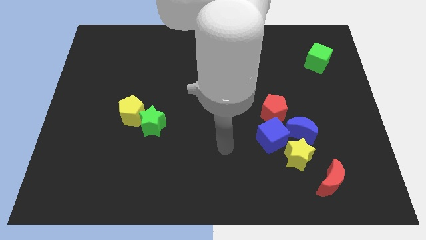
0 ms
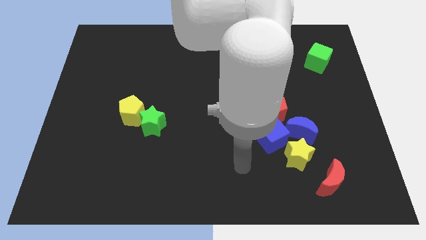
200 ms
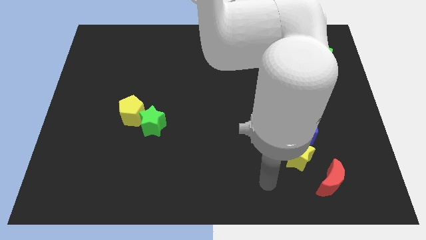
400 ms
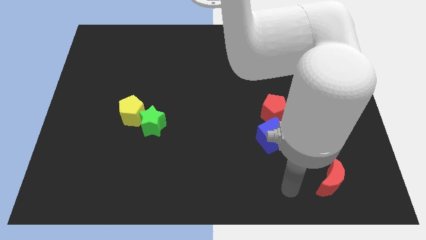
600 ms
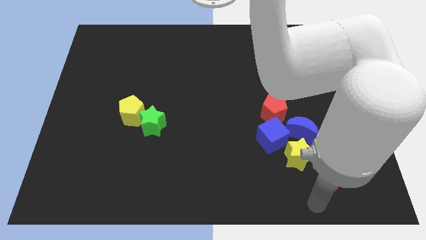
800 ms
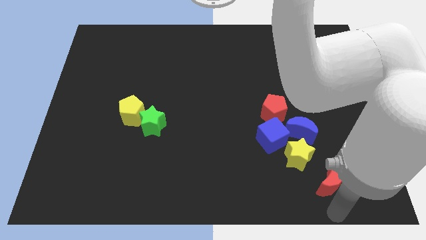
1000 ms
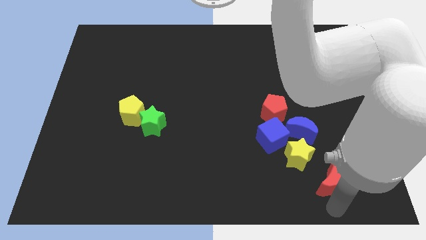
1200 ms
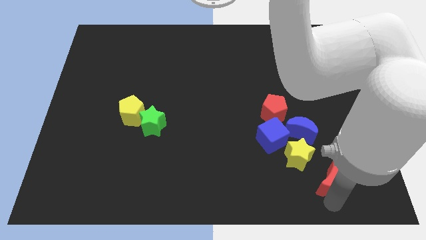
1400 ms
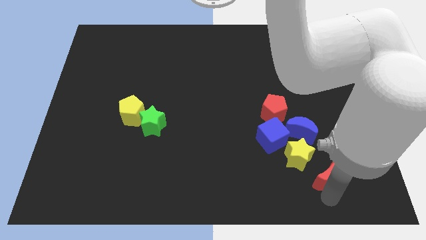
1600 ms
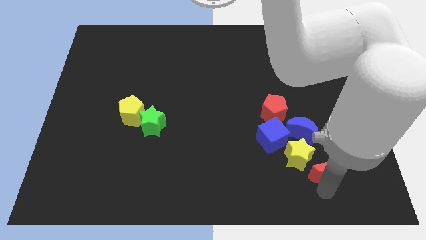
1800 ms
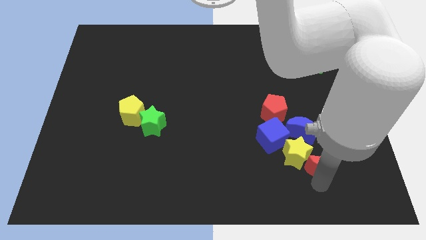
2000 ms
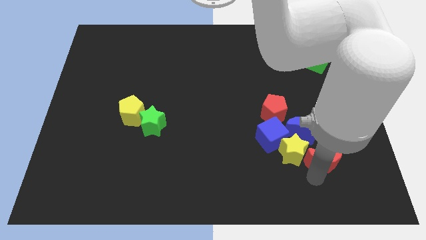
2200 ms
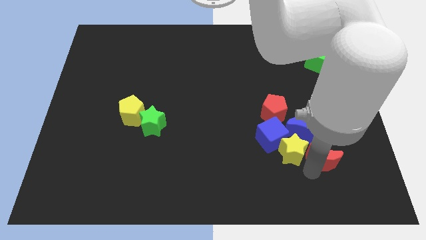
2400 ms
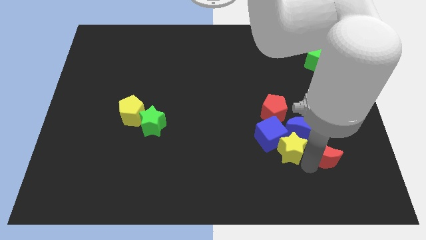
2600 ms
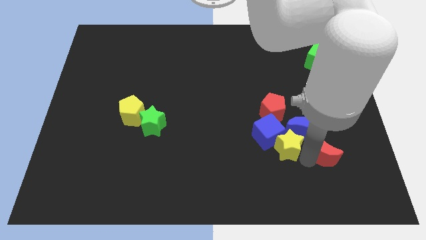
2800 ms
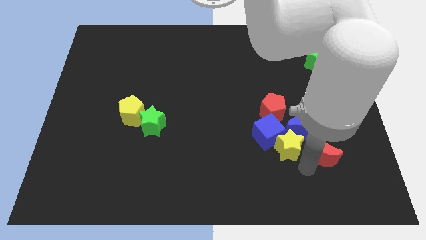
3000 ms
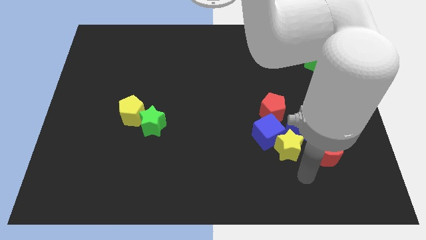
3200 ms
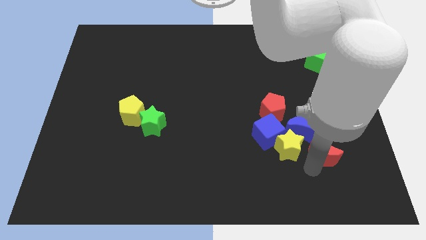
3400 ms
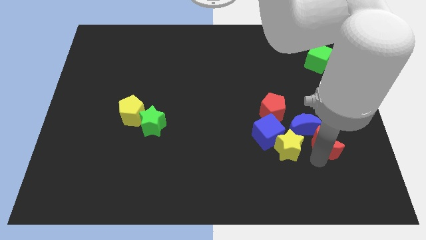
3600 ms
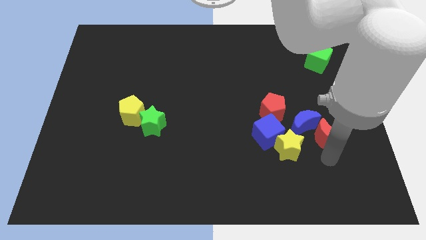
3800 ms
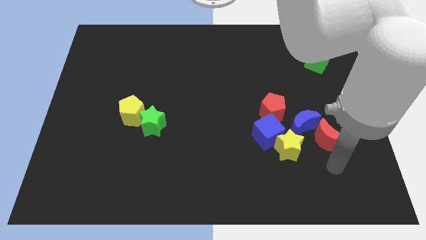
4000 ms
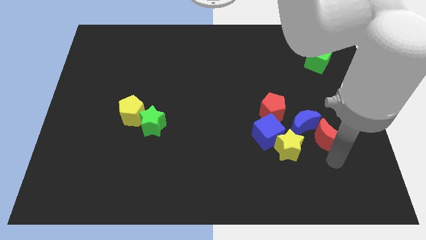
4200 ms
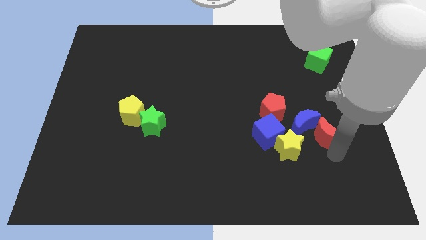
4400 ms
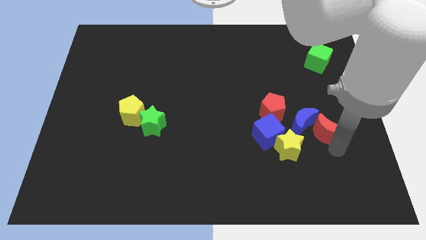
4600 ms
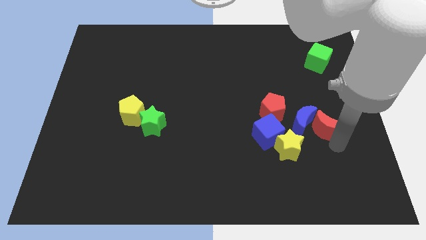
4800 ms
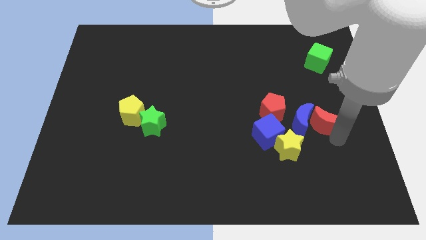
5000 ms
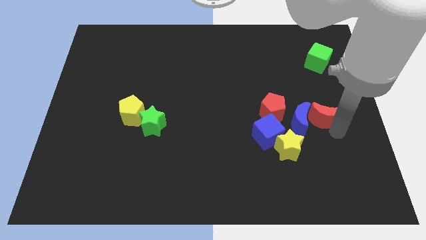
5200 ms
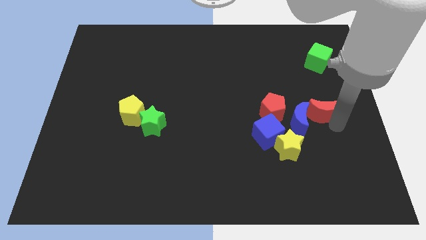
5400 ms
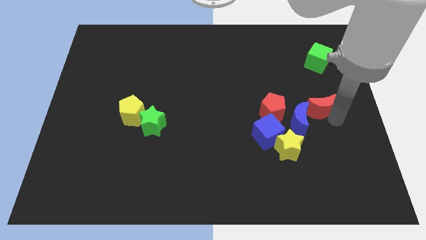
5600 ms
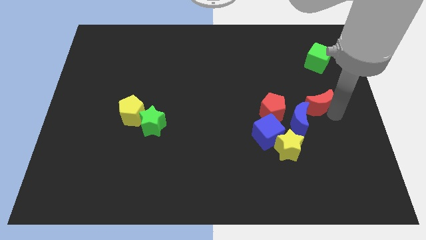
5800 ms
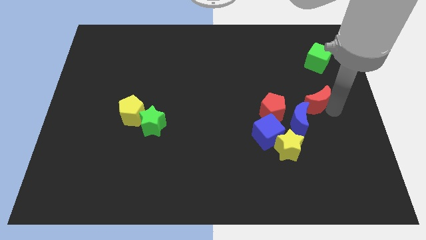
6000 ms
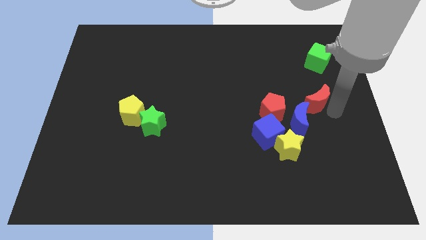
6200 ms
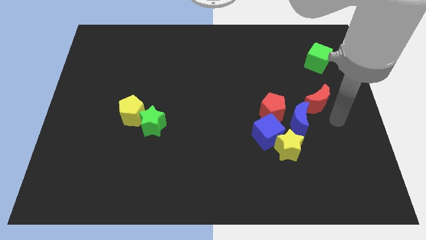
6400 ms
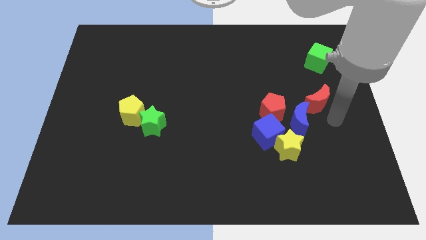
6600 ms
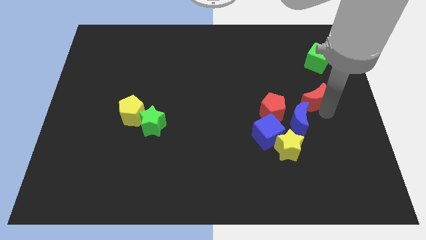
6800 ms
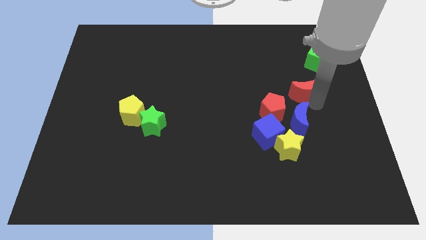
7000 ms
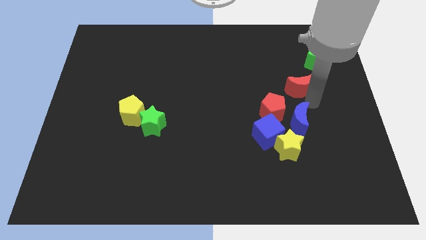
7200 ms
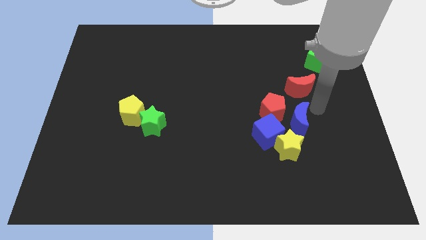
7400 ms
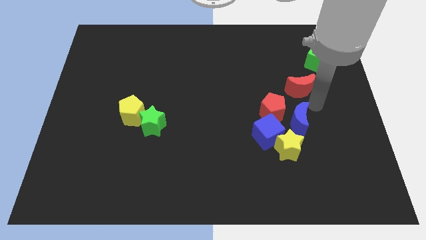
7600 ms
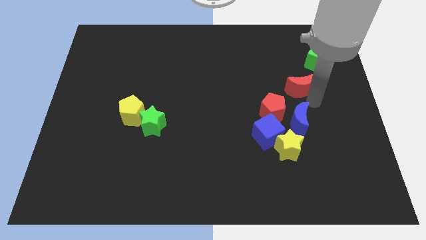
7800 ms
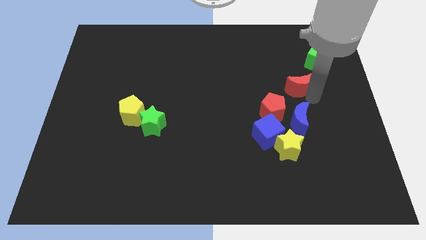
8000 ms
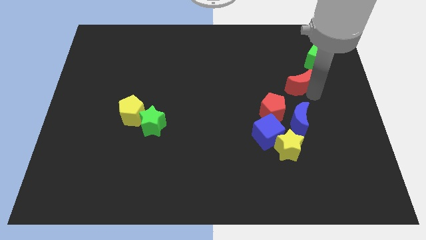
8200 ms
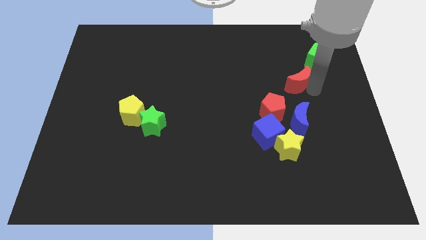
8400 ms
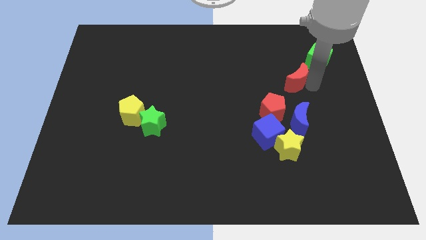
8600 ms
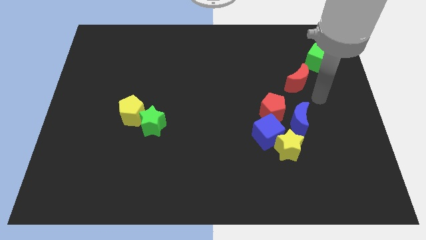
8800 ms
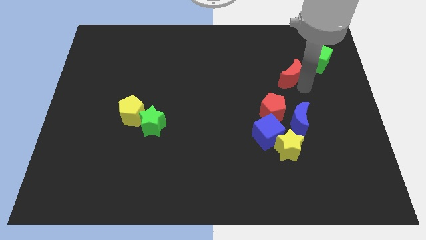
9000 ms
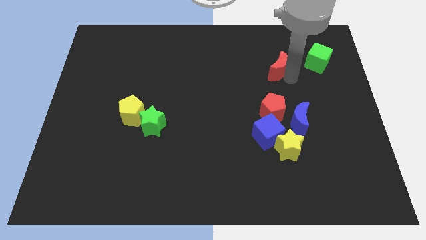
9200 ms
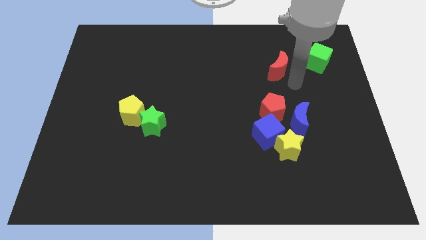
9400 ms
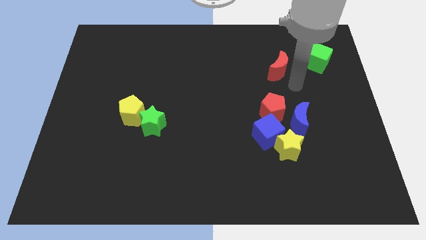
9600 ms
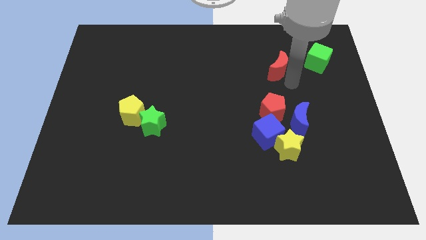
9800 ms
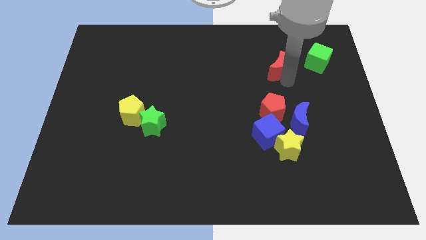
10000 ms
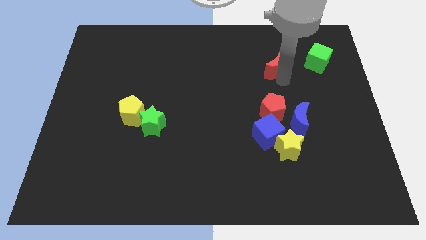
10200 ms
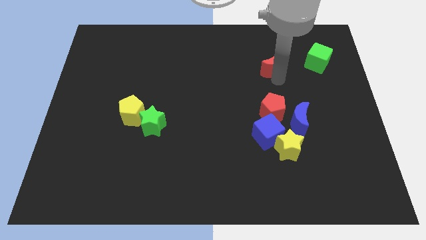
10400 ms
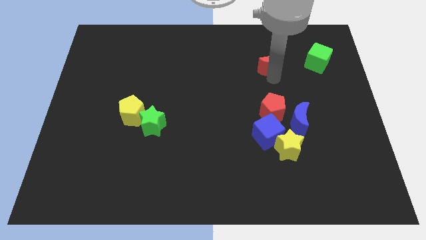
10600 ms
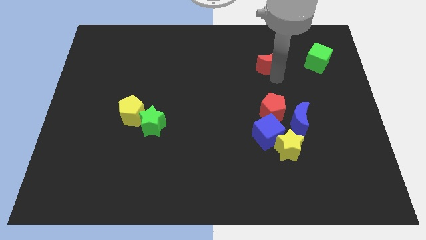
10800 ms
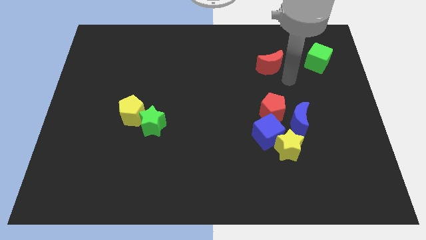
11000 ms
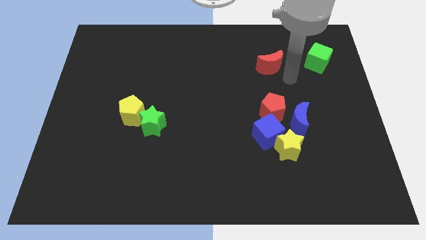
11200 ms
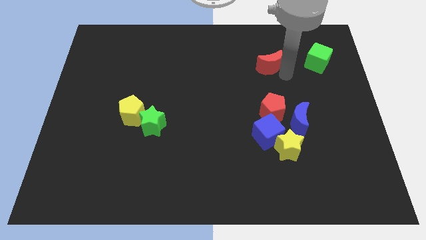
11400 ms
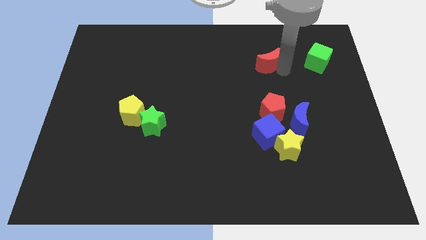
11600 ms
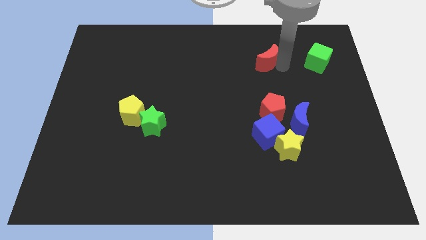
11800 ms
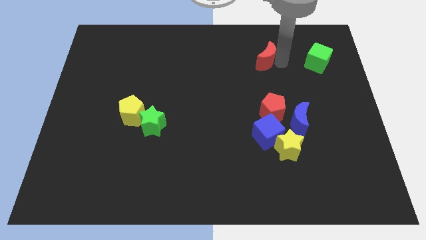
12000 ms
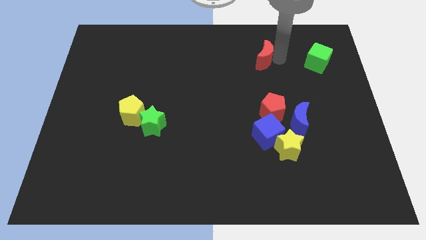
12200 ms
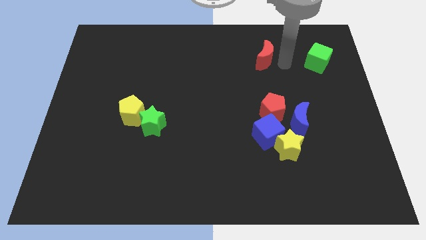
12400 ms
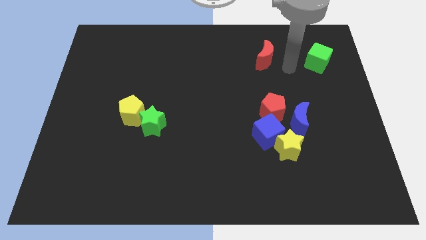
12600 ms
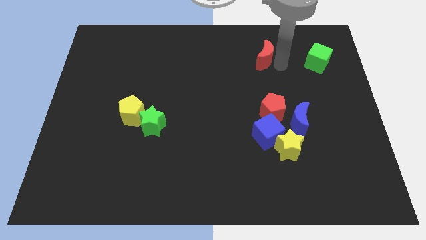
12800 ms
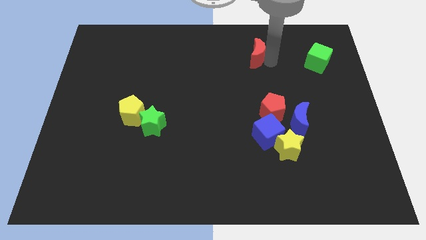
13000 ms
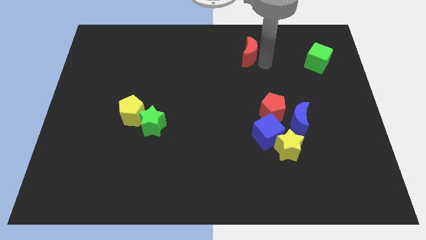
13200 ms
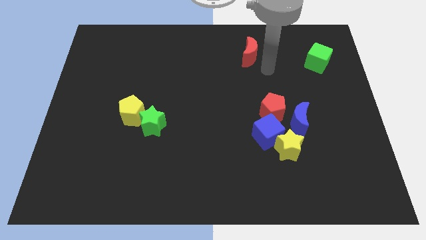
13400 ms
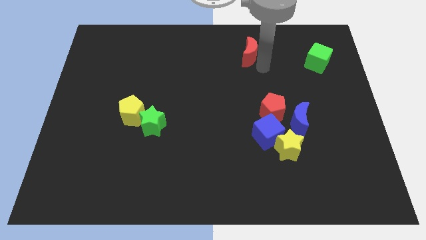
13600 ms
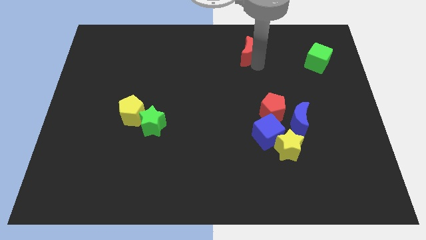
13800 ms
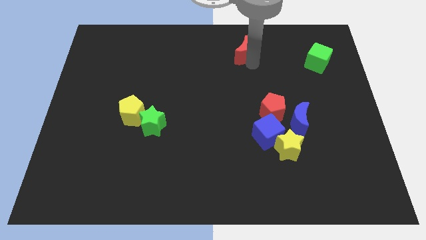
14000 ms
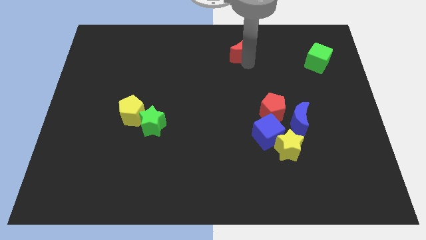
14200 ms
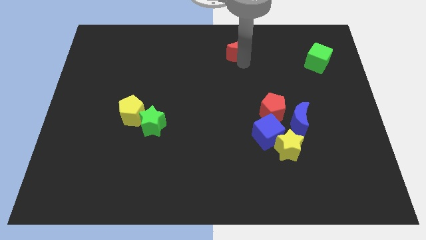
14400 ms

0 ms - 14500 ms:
push the red moon to the top side
